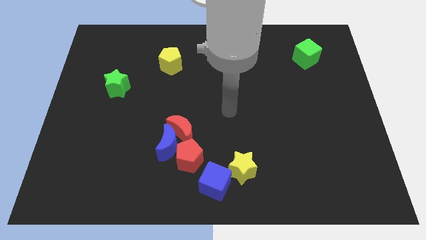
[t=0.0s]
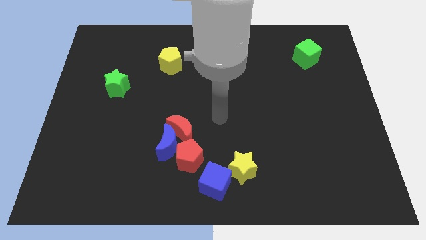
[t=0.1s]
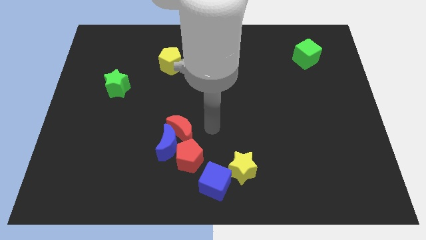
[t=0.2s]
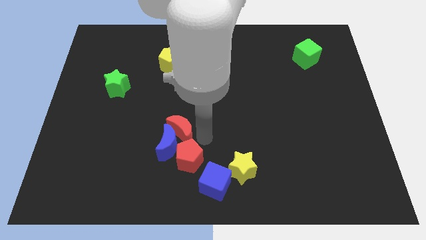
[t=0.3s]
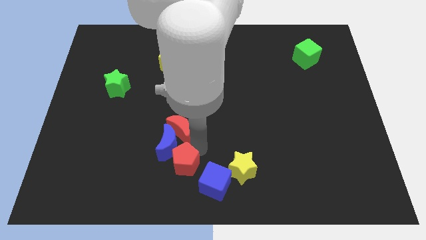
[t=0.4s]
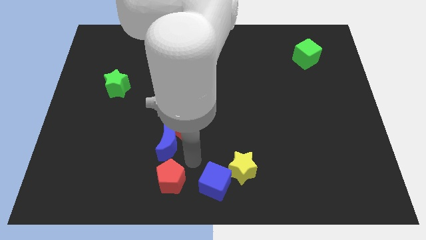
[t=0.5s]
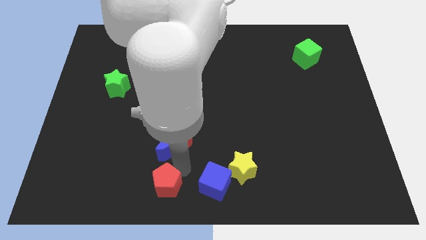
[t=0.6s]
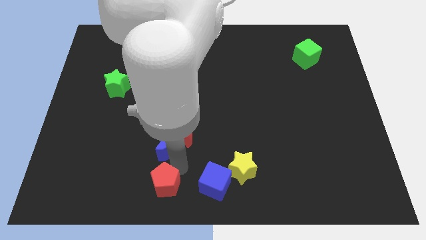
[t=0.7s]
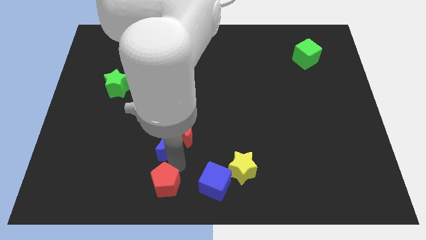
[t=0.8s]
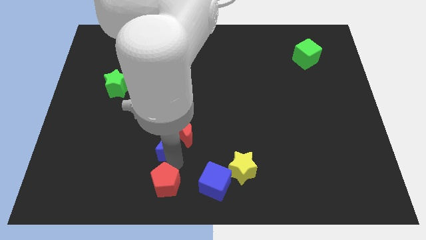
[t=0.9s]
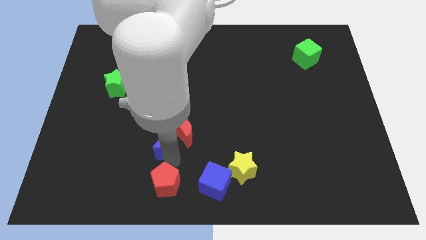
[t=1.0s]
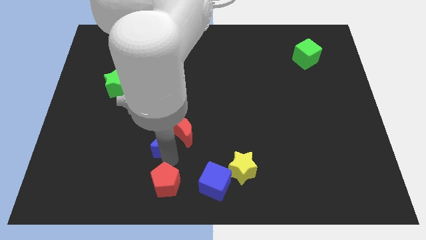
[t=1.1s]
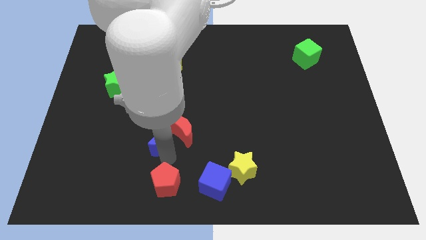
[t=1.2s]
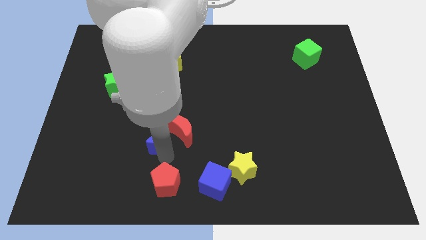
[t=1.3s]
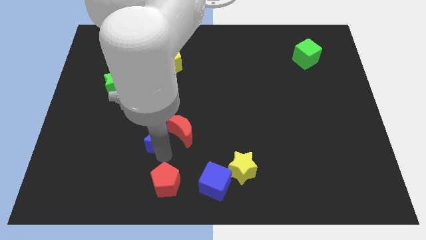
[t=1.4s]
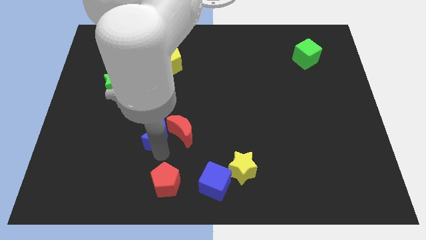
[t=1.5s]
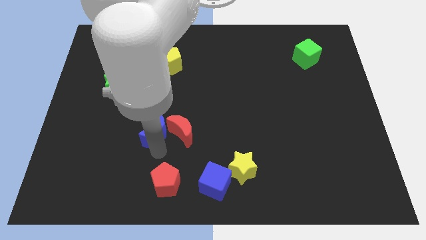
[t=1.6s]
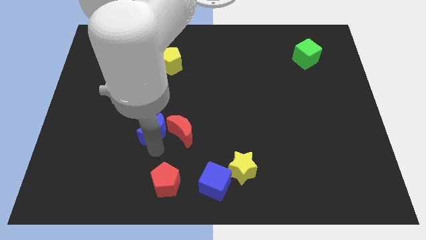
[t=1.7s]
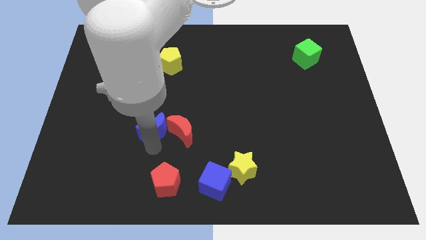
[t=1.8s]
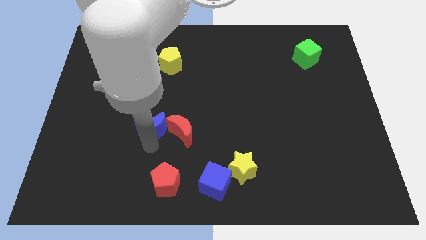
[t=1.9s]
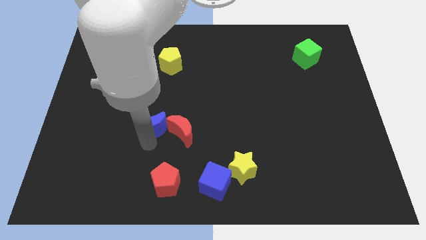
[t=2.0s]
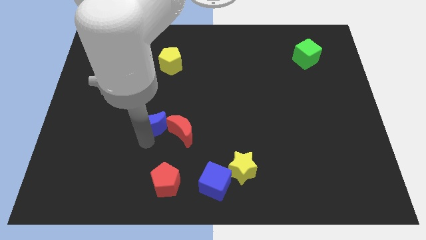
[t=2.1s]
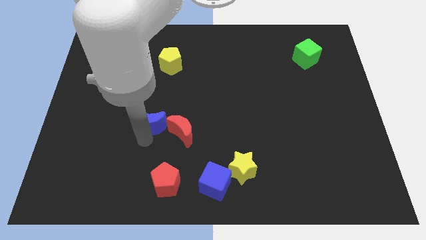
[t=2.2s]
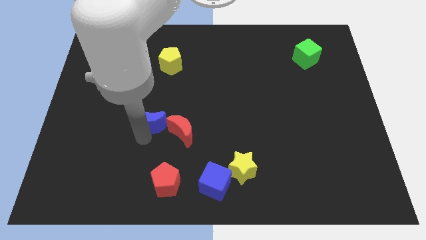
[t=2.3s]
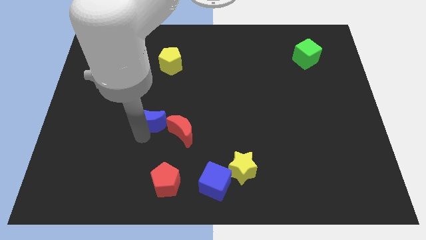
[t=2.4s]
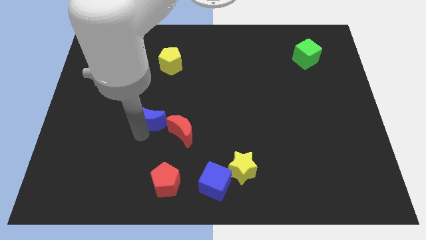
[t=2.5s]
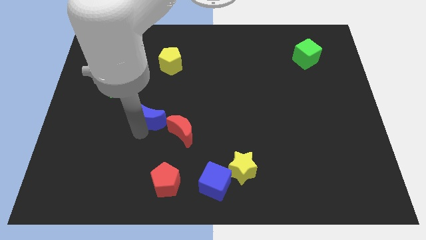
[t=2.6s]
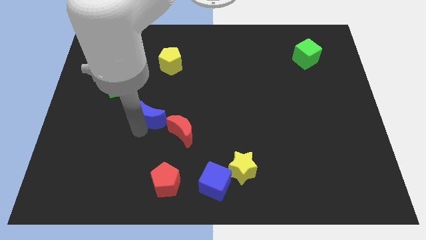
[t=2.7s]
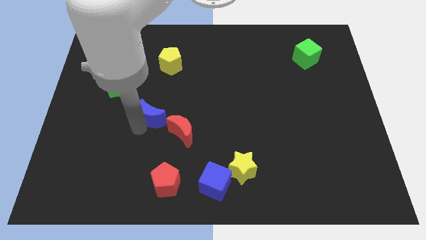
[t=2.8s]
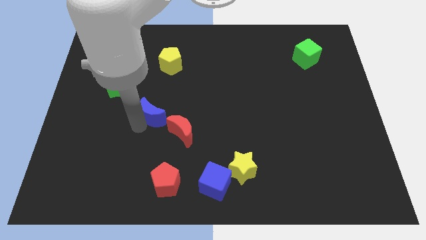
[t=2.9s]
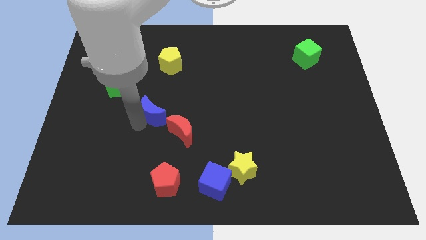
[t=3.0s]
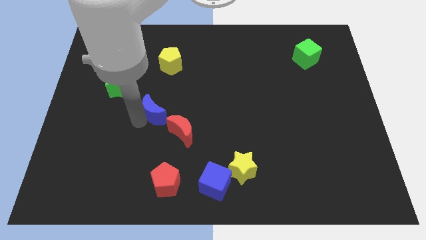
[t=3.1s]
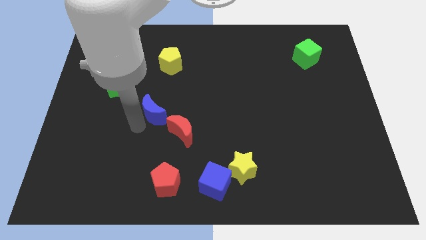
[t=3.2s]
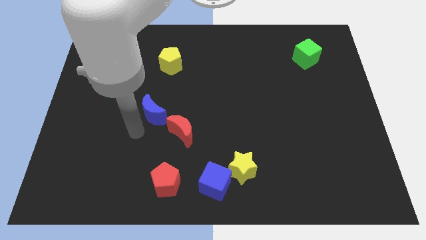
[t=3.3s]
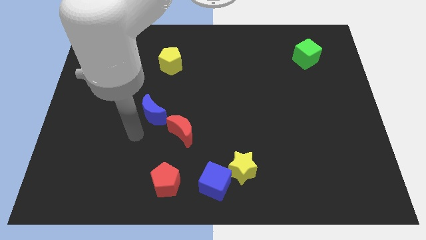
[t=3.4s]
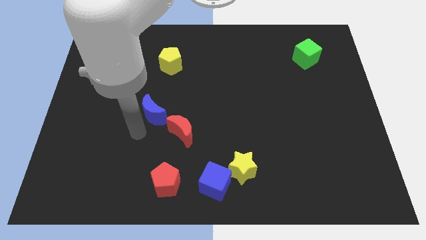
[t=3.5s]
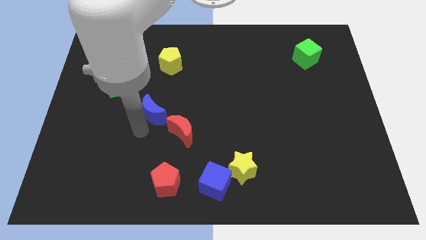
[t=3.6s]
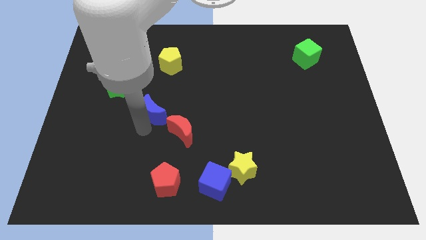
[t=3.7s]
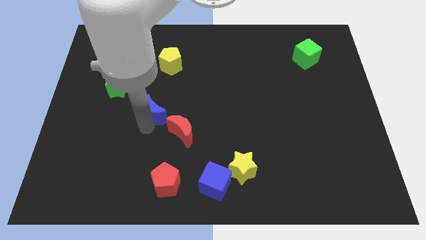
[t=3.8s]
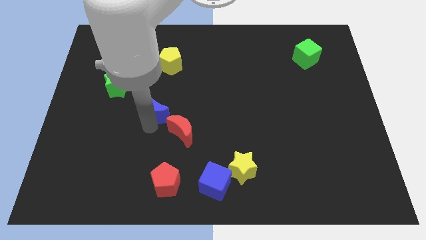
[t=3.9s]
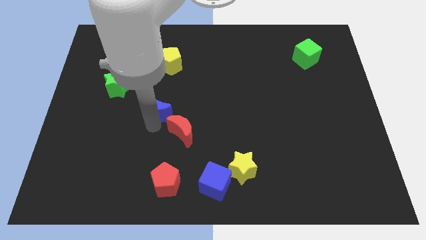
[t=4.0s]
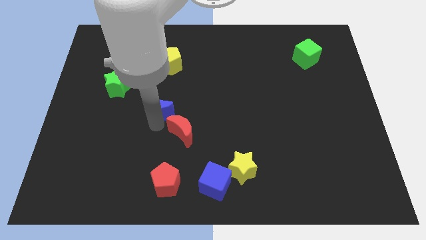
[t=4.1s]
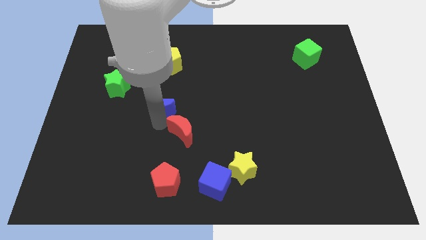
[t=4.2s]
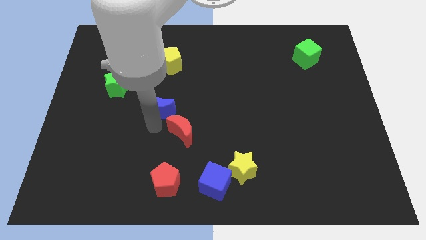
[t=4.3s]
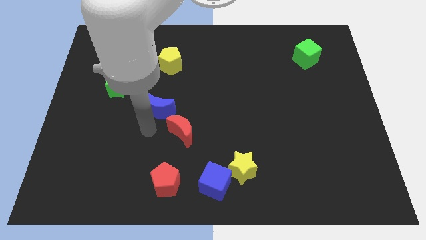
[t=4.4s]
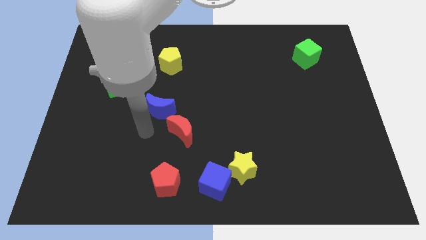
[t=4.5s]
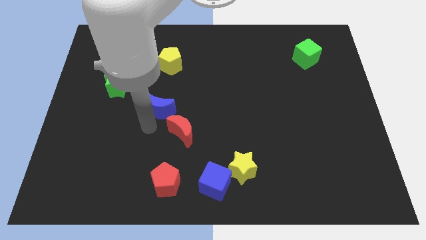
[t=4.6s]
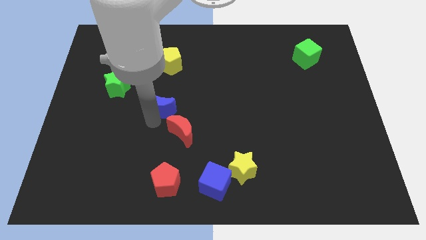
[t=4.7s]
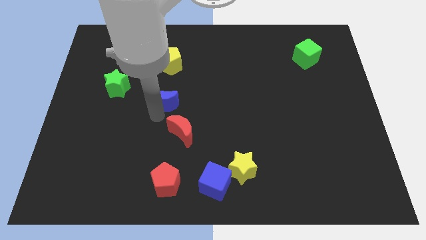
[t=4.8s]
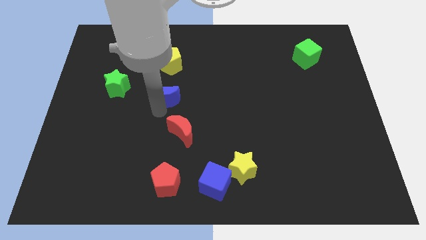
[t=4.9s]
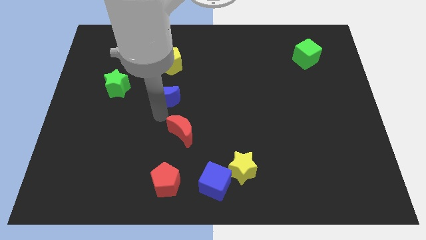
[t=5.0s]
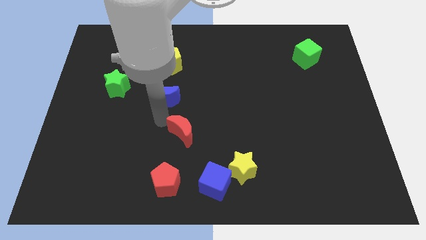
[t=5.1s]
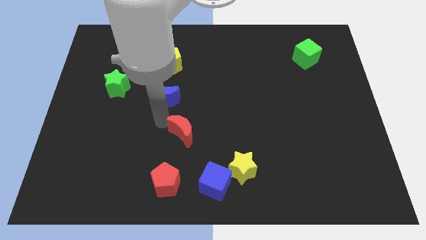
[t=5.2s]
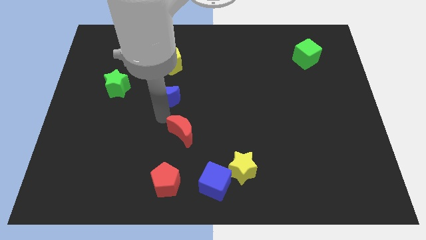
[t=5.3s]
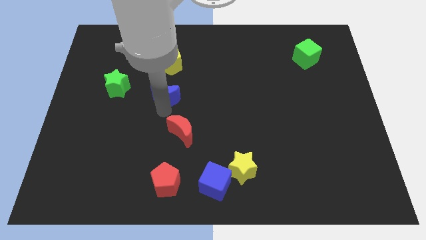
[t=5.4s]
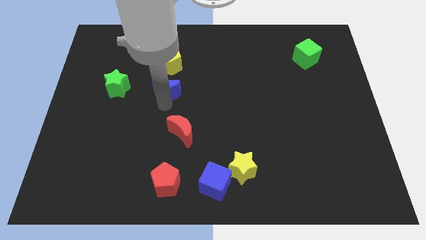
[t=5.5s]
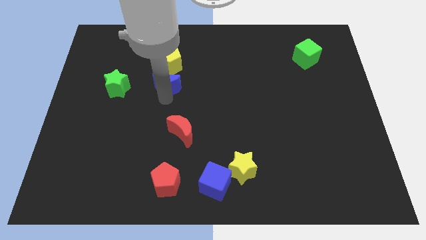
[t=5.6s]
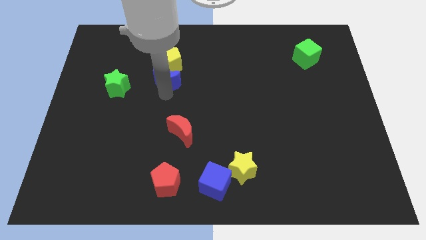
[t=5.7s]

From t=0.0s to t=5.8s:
move the blue moon to the yellow pentagon

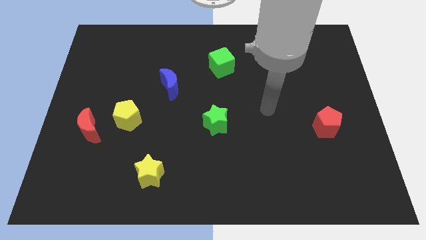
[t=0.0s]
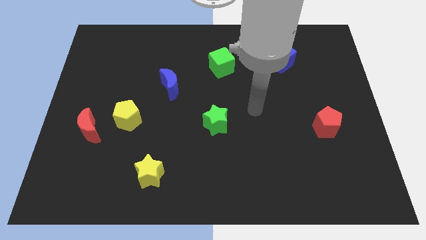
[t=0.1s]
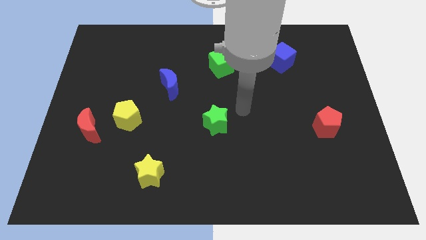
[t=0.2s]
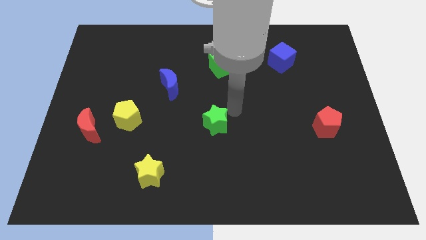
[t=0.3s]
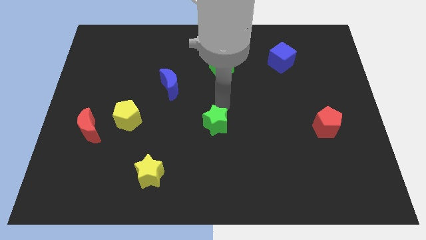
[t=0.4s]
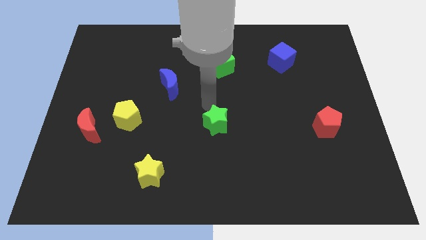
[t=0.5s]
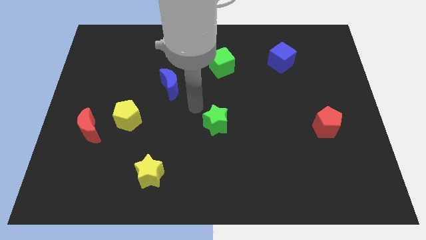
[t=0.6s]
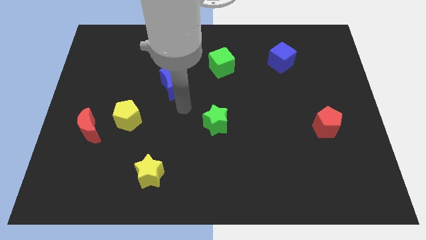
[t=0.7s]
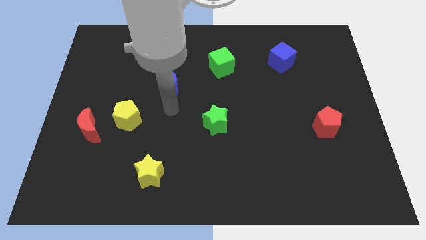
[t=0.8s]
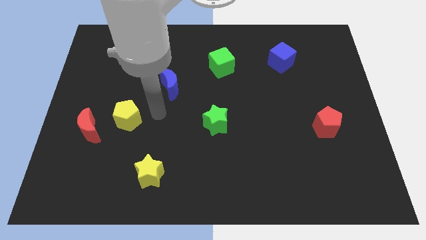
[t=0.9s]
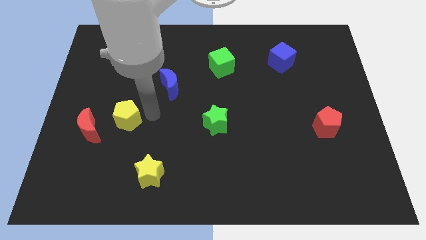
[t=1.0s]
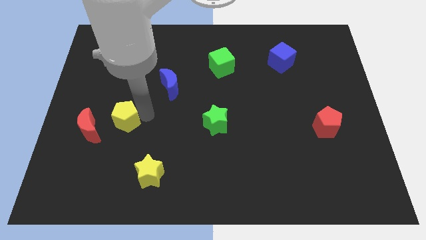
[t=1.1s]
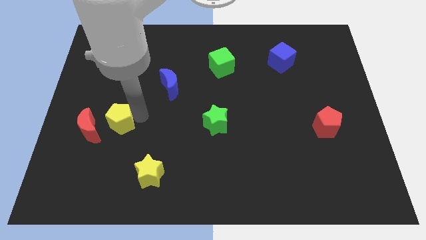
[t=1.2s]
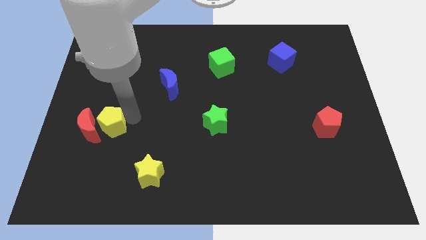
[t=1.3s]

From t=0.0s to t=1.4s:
put the yellow pentagon close to the red moon
